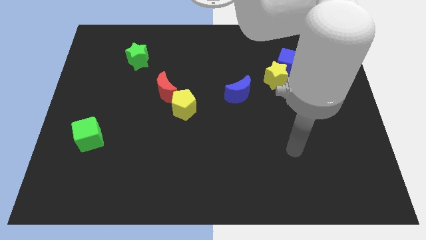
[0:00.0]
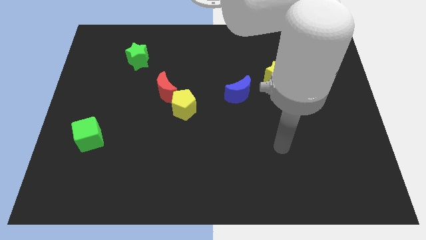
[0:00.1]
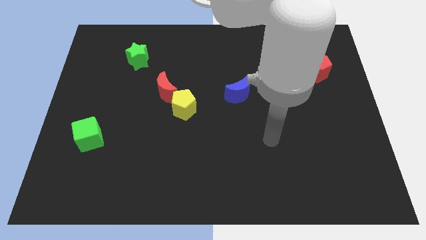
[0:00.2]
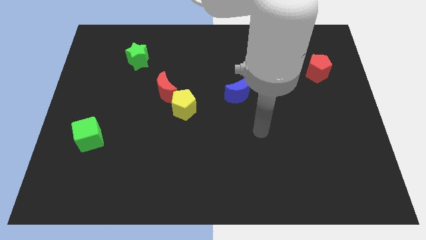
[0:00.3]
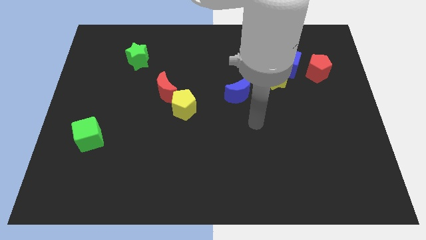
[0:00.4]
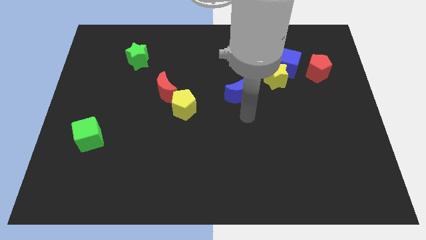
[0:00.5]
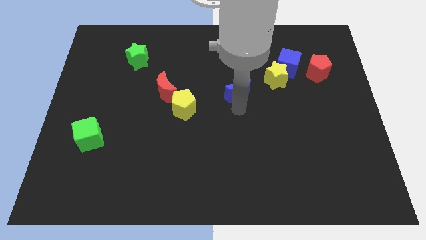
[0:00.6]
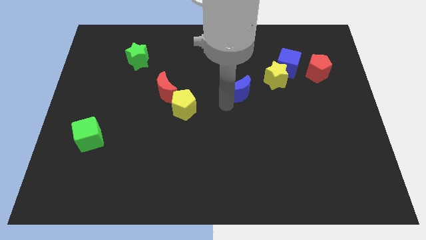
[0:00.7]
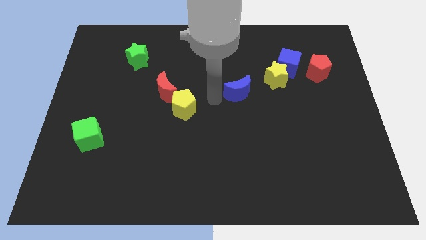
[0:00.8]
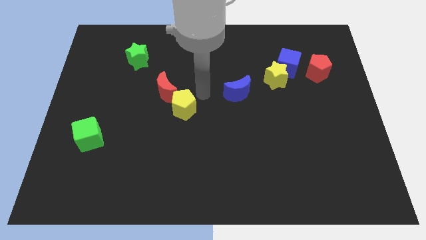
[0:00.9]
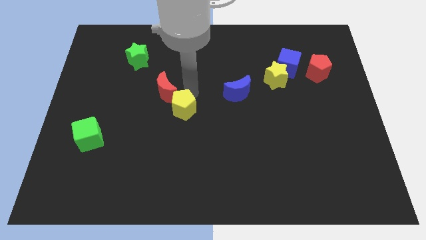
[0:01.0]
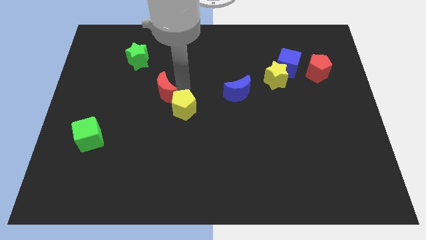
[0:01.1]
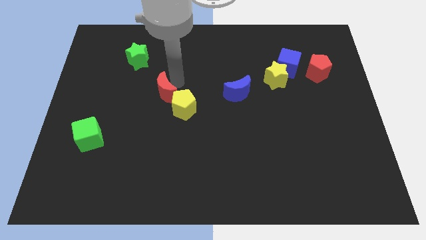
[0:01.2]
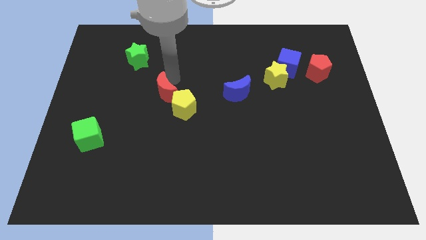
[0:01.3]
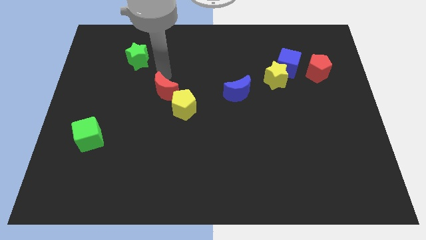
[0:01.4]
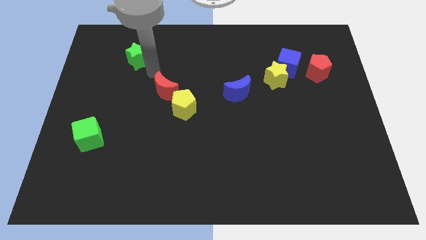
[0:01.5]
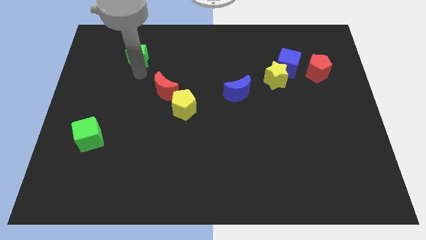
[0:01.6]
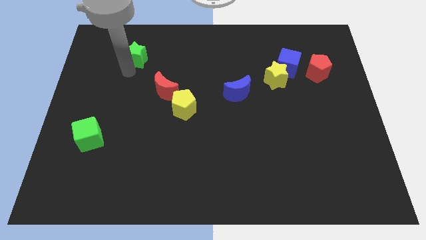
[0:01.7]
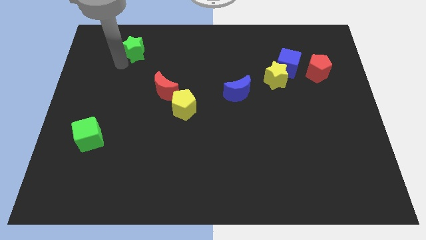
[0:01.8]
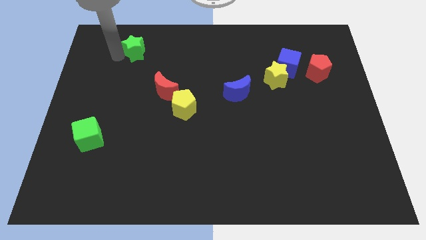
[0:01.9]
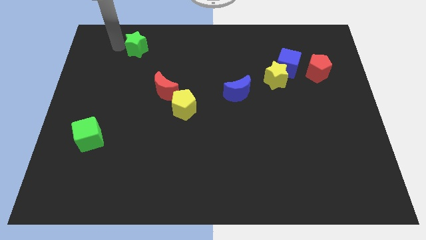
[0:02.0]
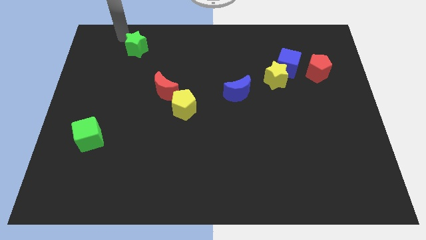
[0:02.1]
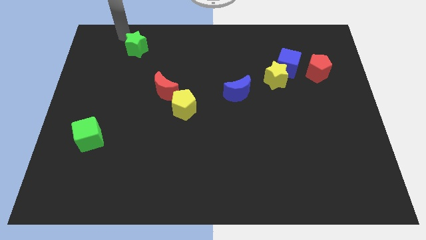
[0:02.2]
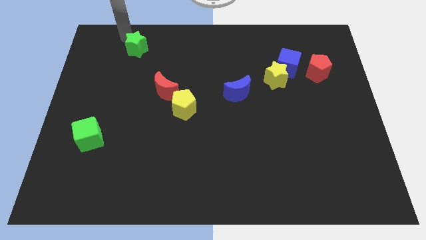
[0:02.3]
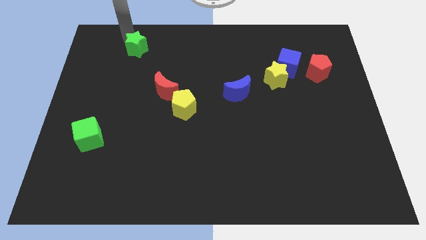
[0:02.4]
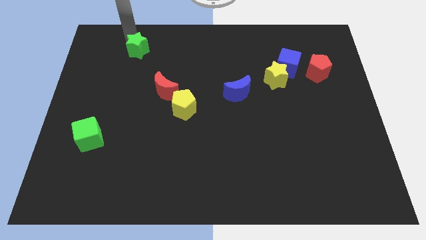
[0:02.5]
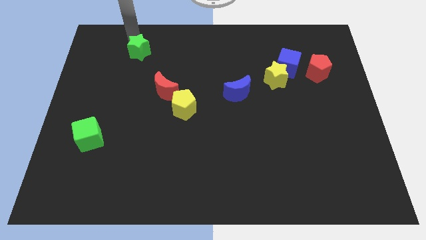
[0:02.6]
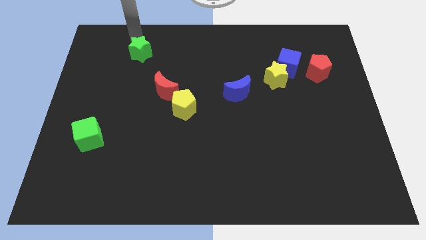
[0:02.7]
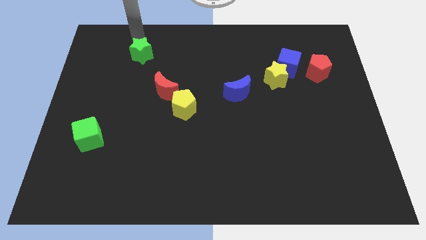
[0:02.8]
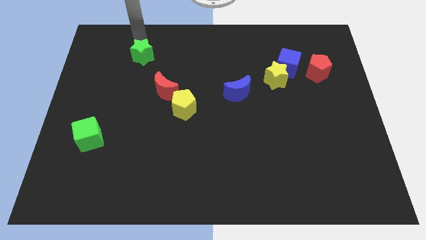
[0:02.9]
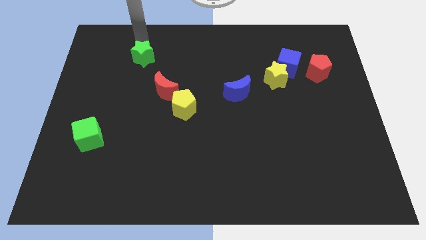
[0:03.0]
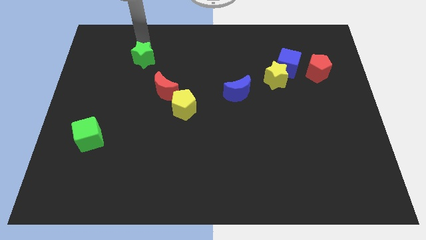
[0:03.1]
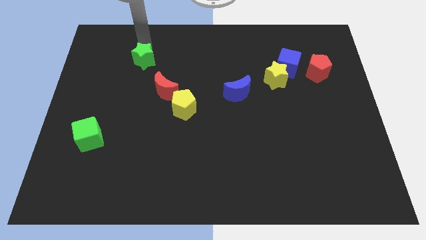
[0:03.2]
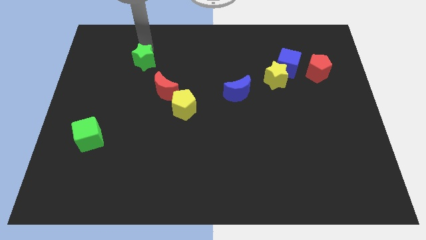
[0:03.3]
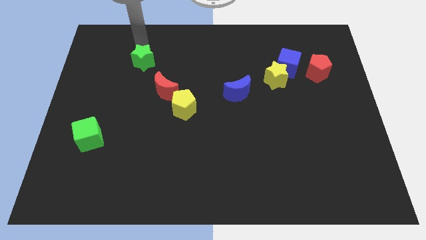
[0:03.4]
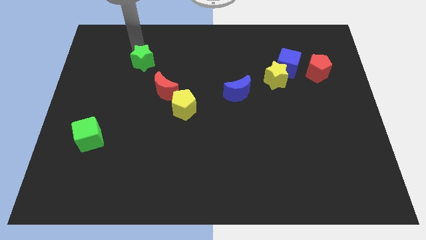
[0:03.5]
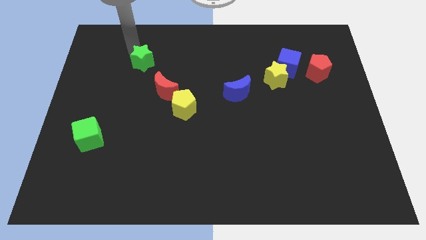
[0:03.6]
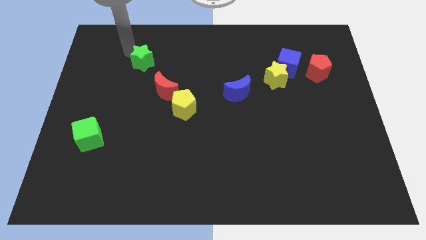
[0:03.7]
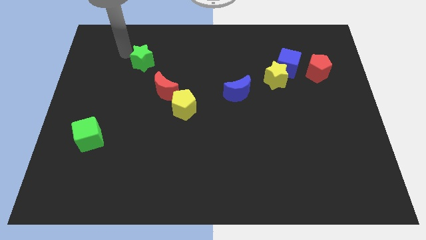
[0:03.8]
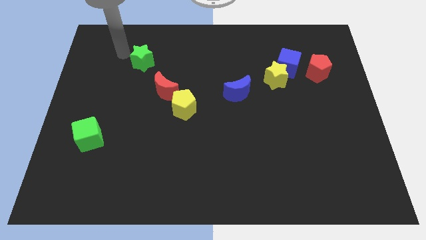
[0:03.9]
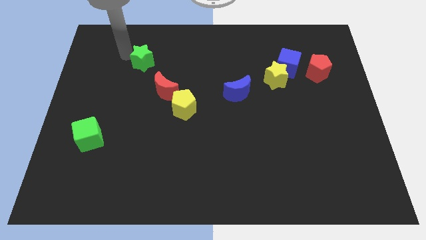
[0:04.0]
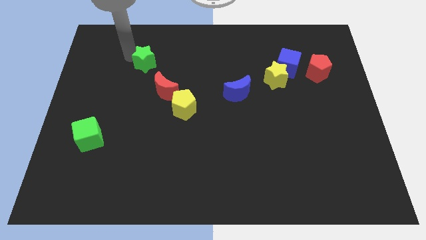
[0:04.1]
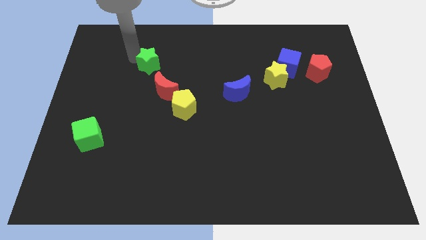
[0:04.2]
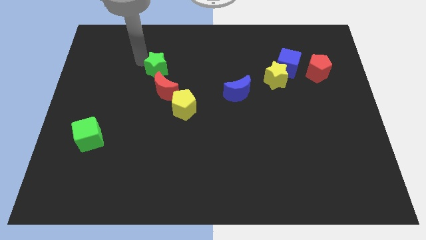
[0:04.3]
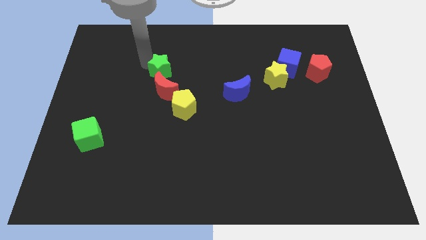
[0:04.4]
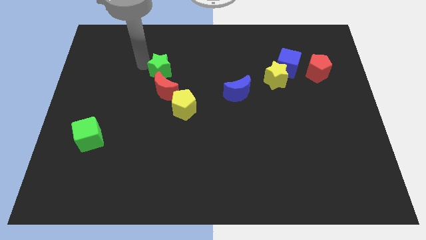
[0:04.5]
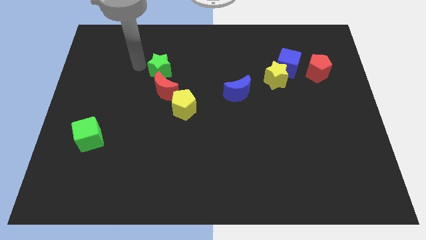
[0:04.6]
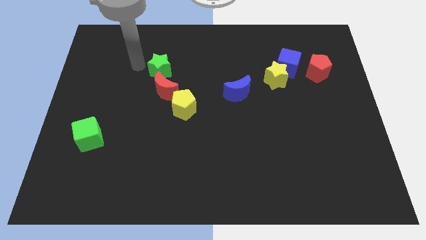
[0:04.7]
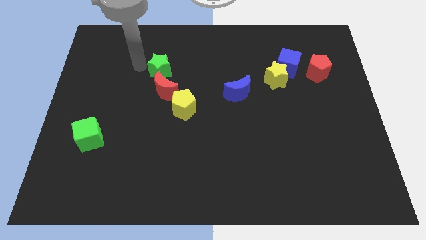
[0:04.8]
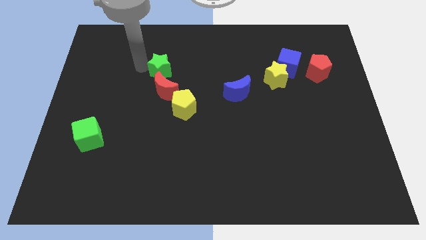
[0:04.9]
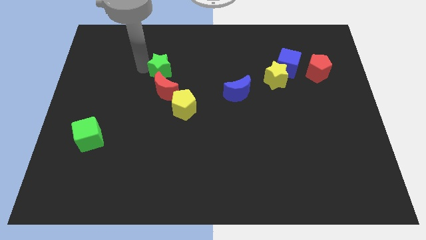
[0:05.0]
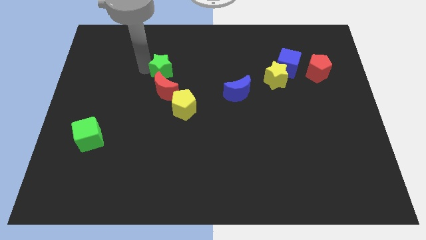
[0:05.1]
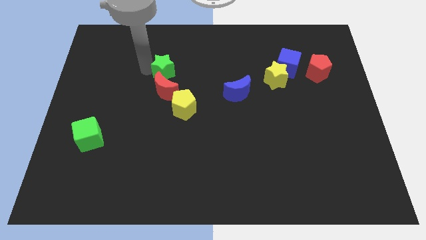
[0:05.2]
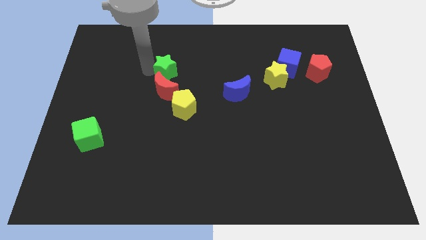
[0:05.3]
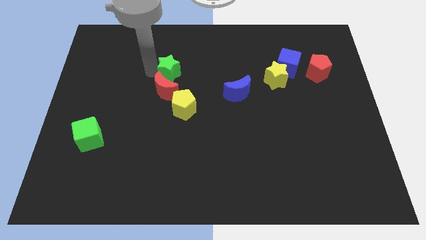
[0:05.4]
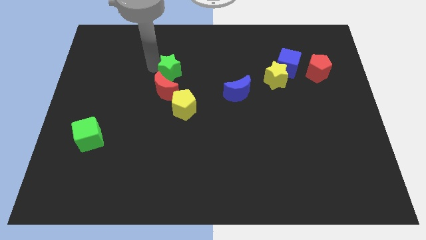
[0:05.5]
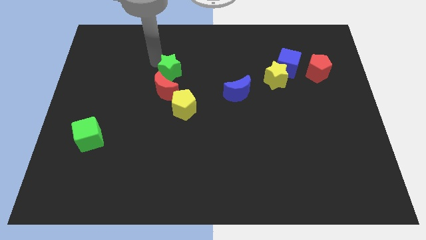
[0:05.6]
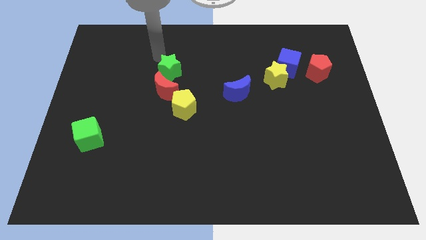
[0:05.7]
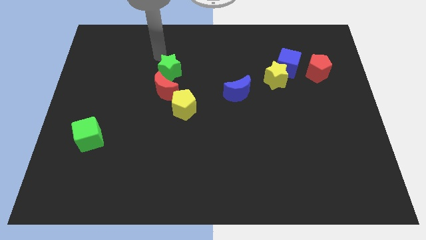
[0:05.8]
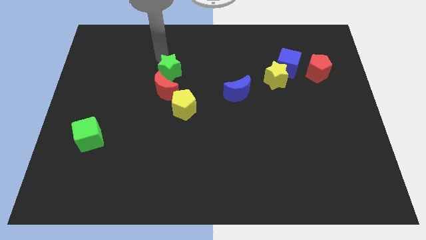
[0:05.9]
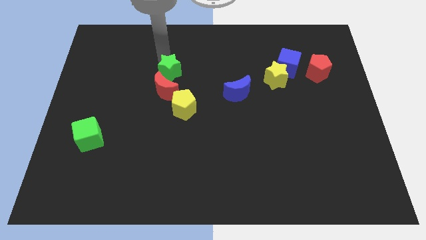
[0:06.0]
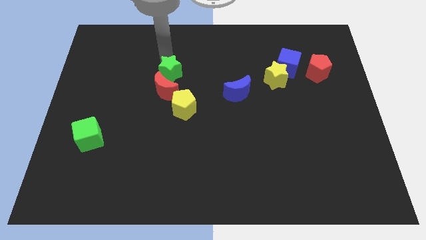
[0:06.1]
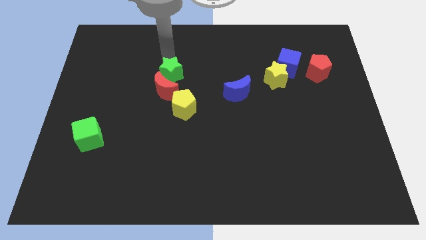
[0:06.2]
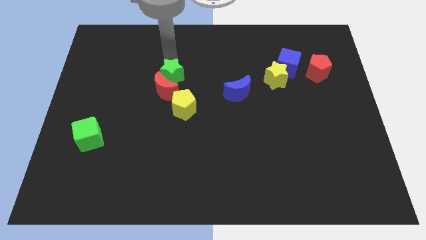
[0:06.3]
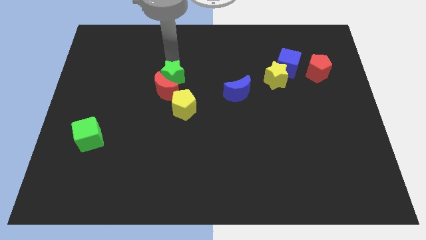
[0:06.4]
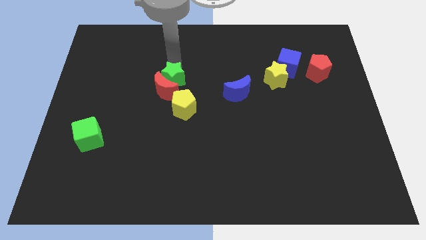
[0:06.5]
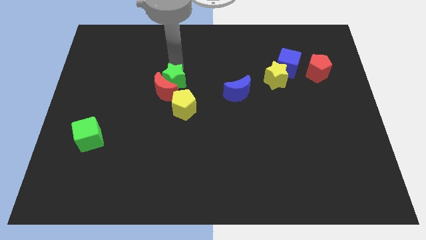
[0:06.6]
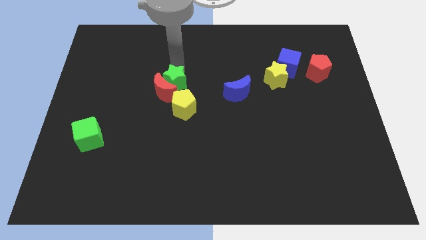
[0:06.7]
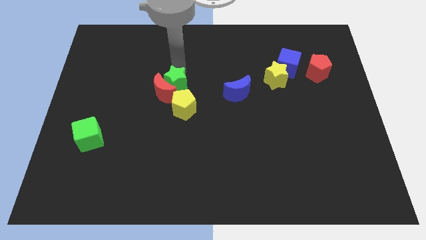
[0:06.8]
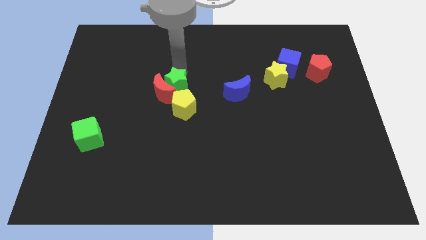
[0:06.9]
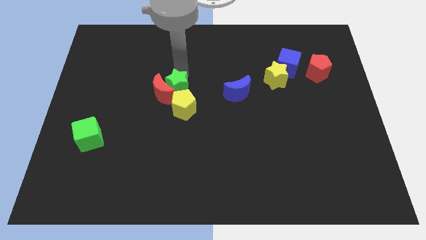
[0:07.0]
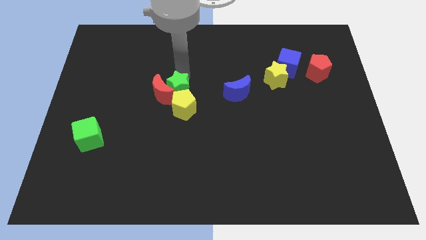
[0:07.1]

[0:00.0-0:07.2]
put the green star towards the yellow pentagon
